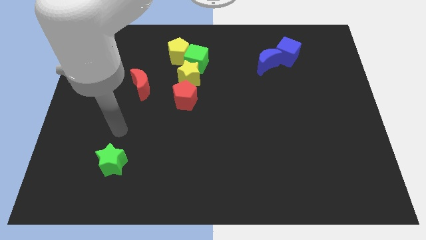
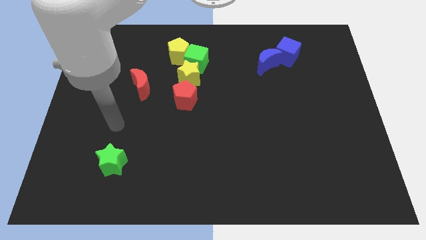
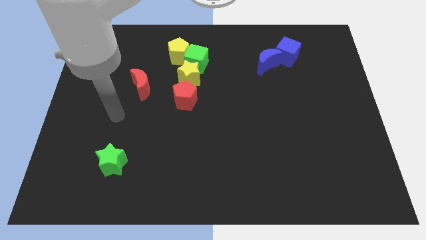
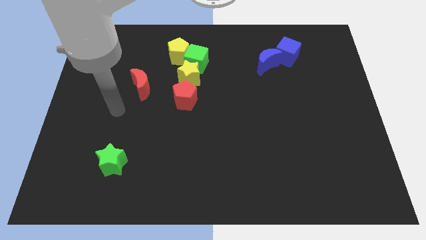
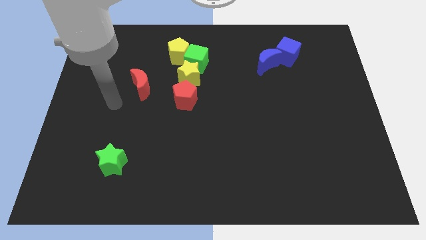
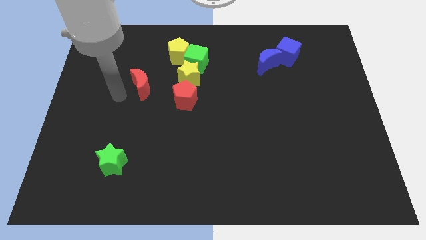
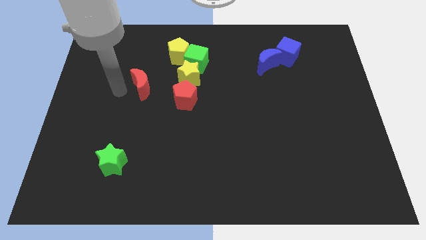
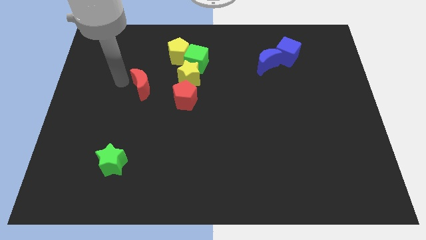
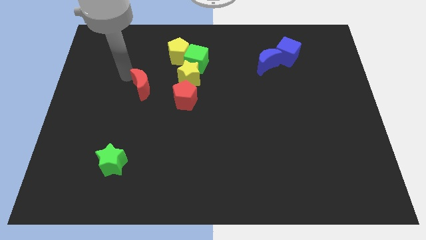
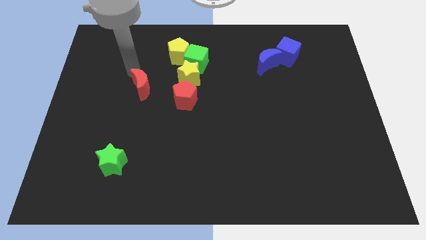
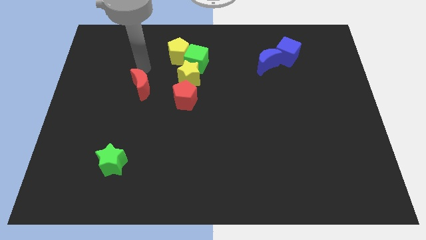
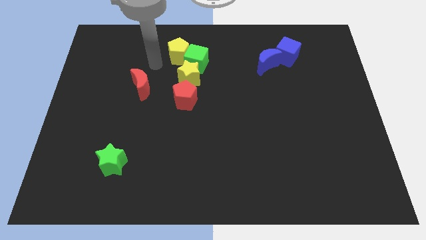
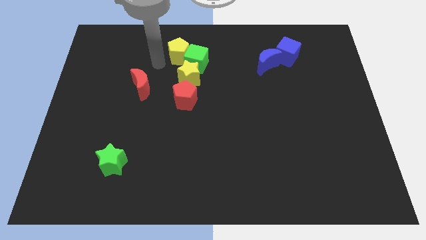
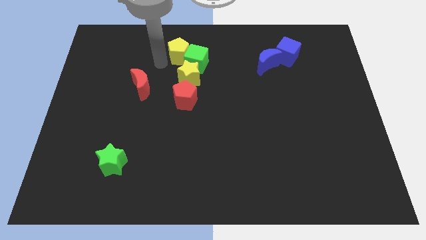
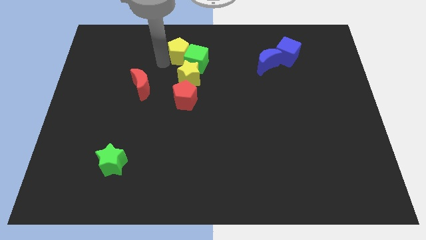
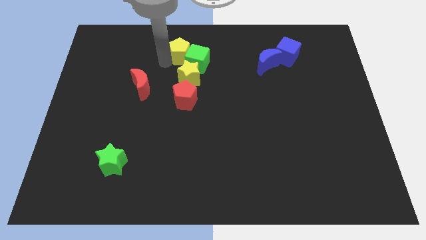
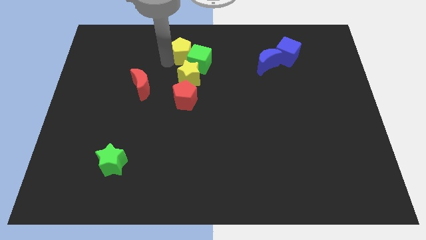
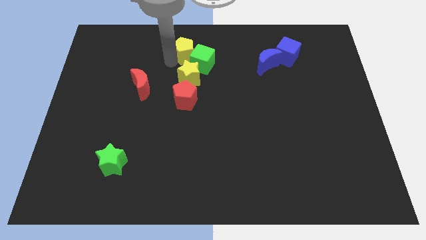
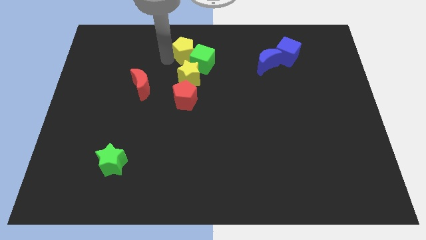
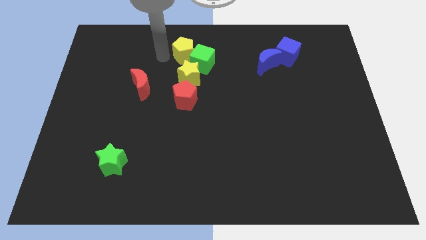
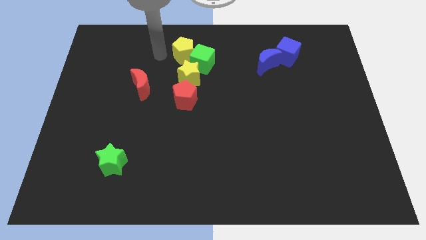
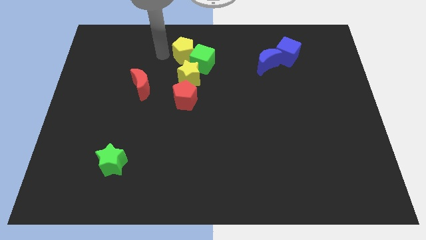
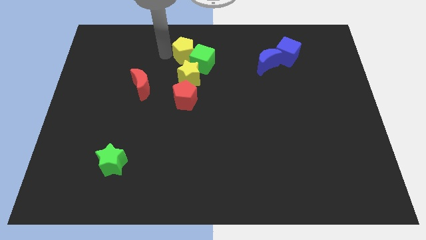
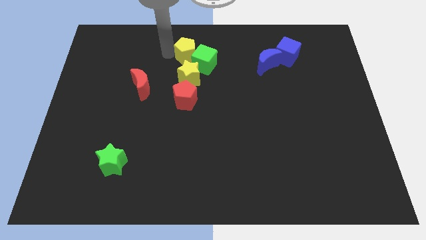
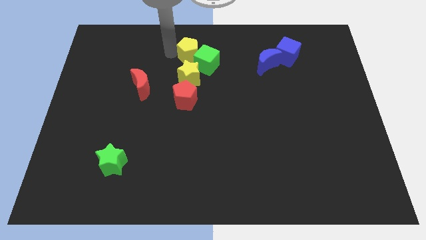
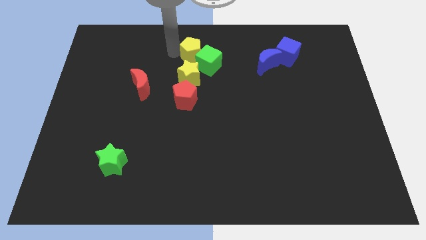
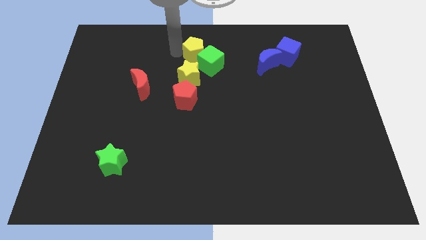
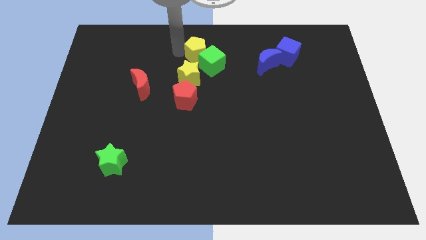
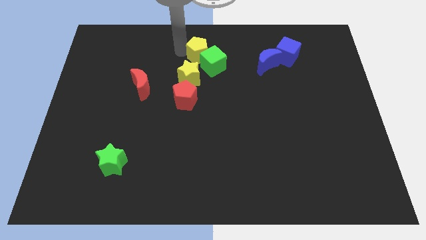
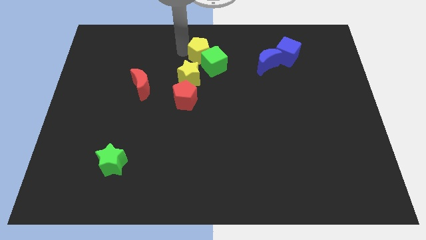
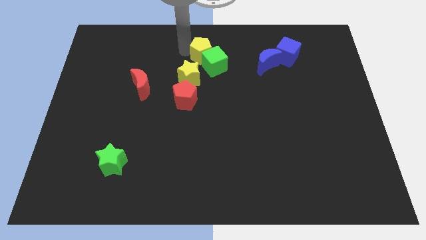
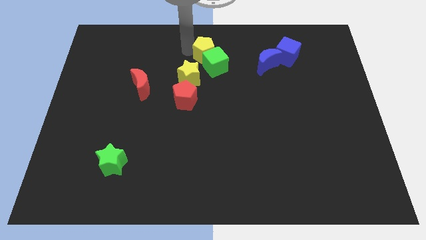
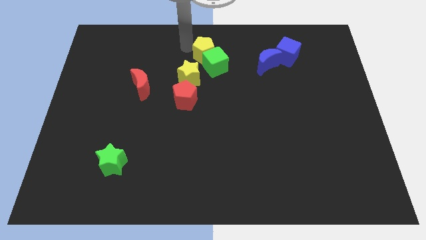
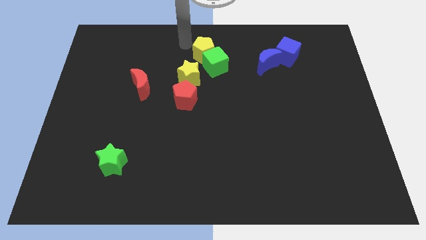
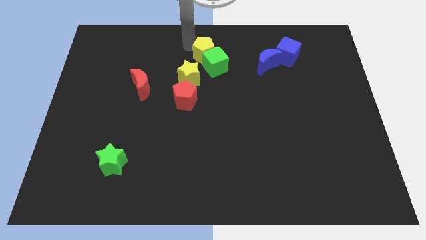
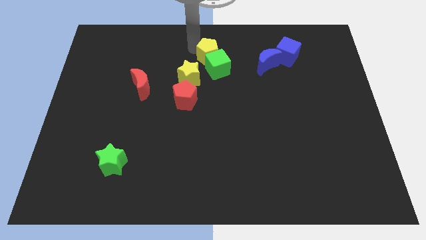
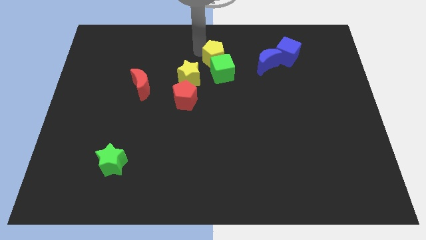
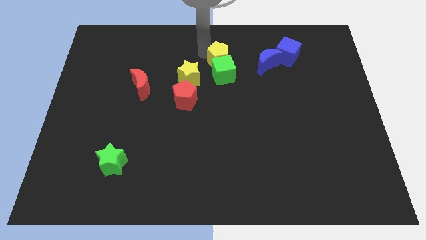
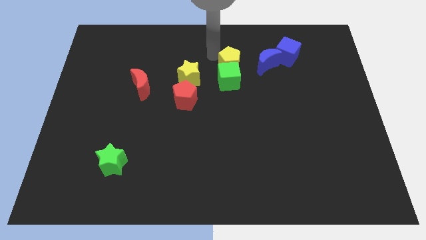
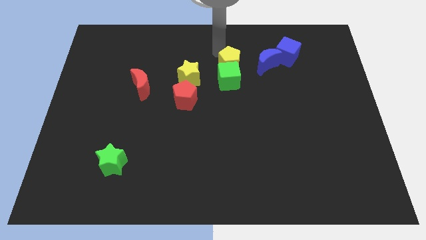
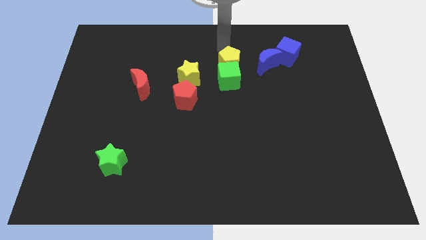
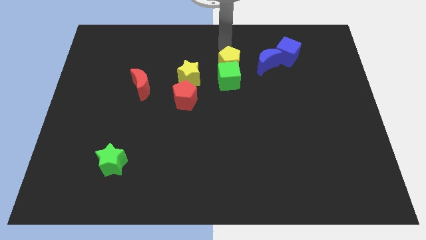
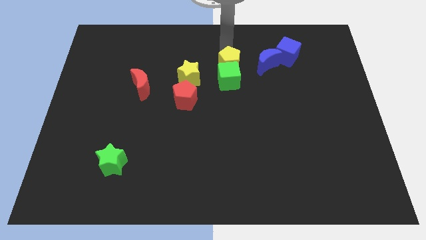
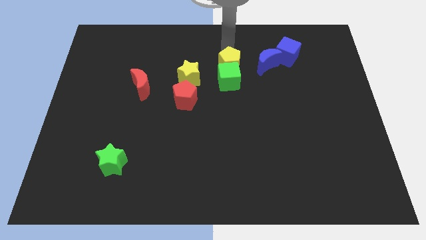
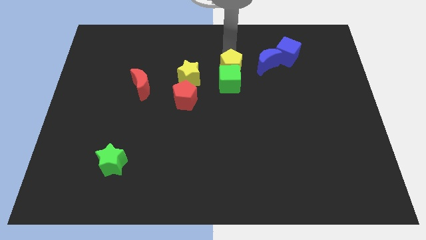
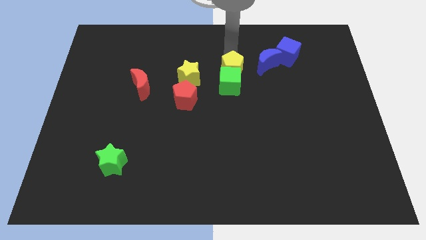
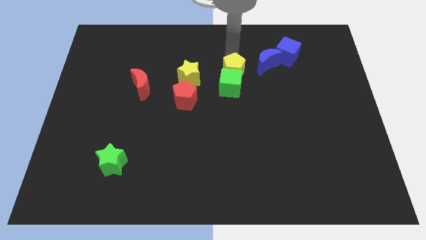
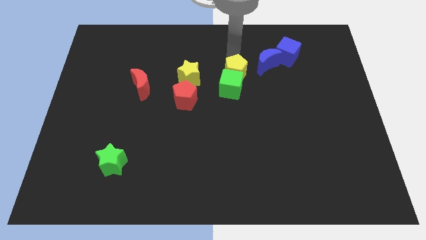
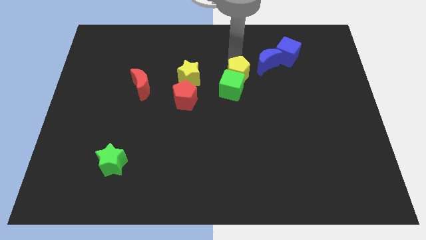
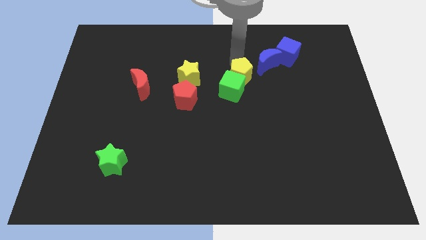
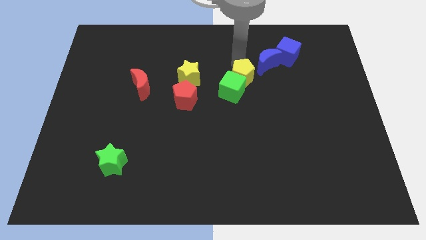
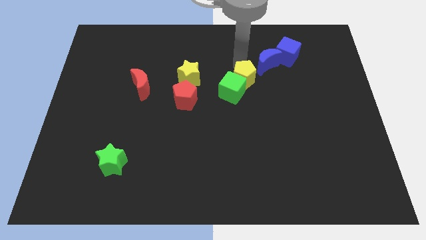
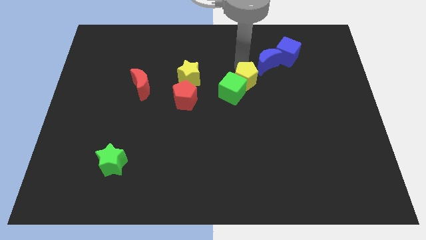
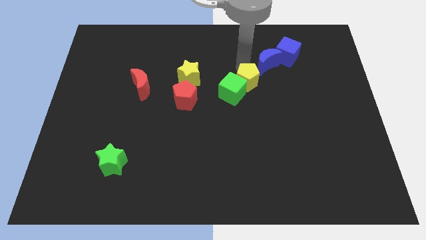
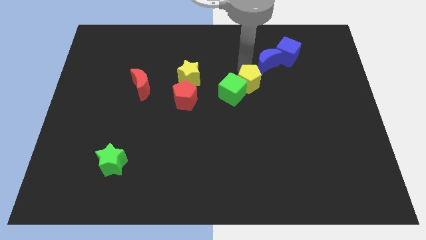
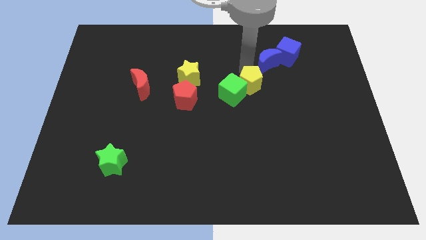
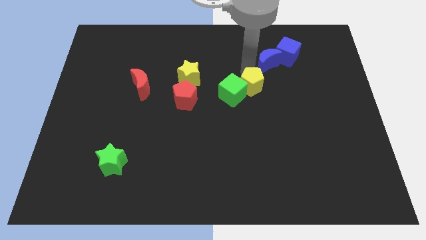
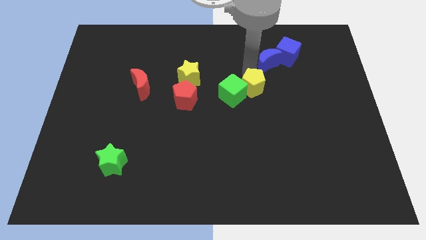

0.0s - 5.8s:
slide the yellow pentagon down and right

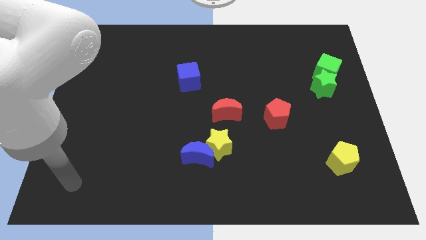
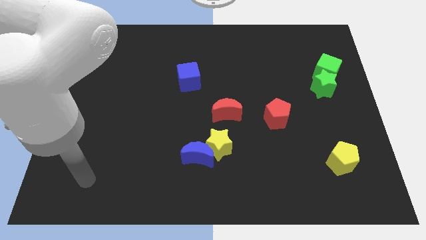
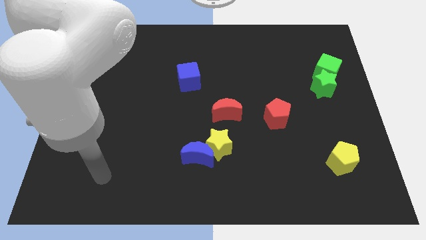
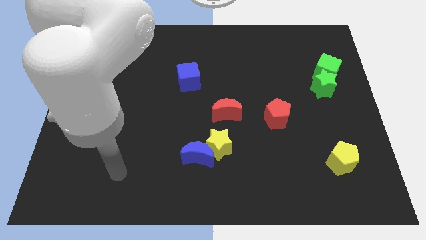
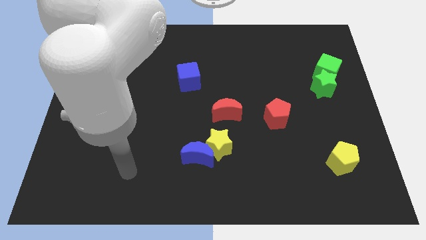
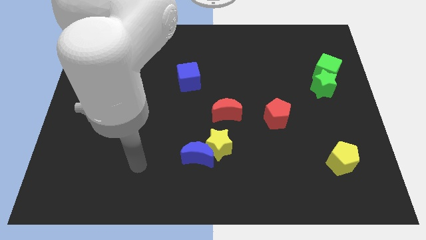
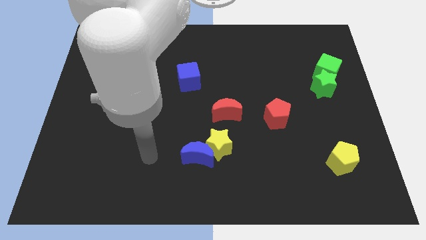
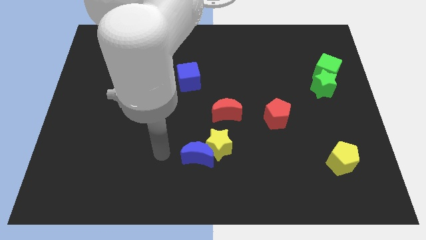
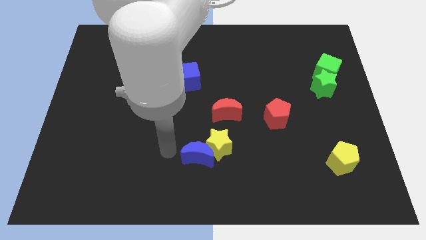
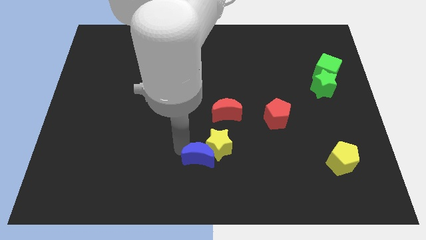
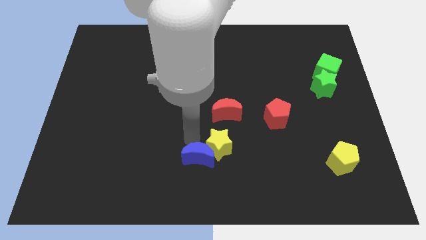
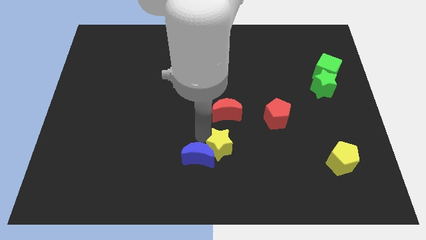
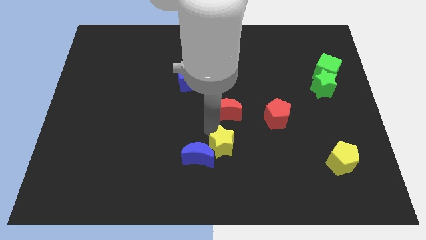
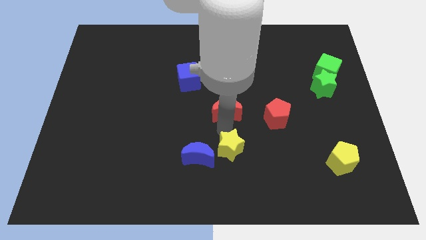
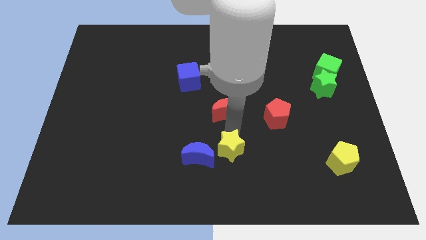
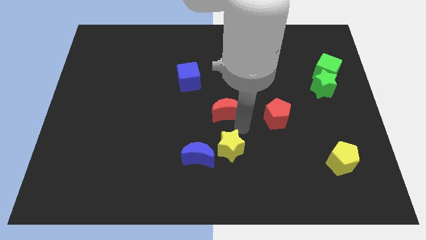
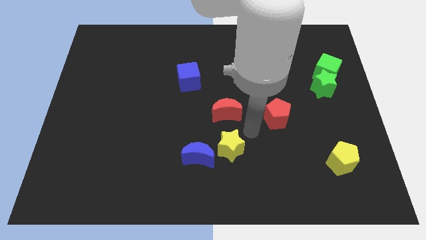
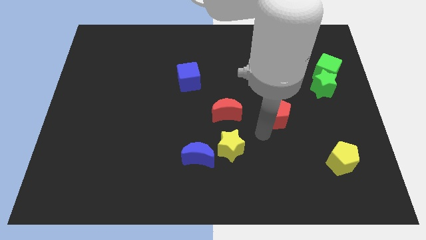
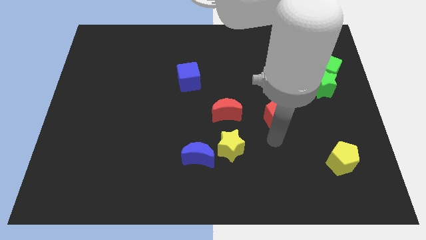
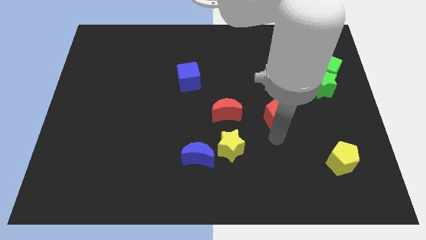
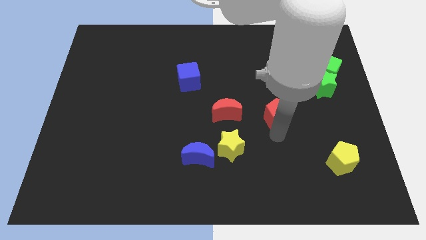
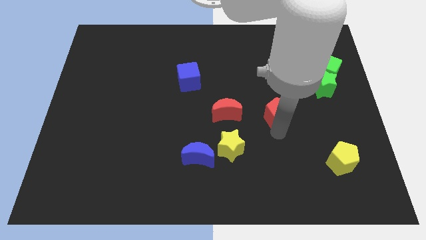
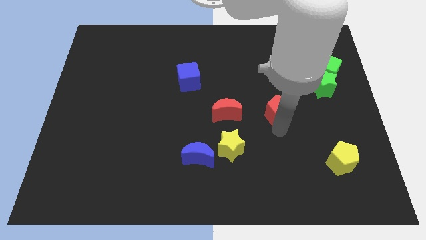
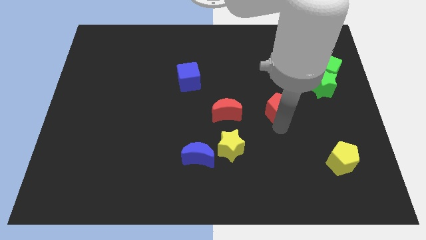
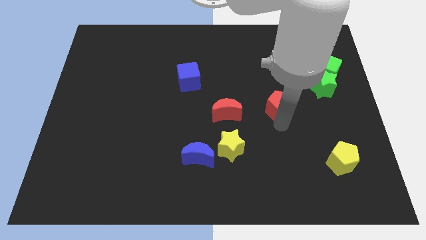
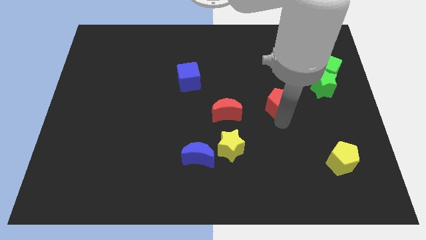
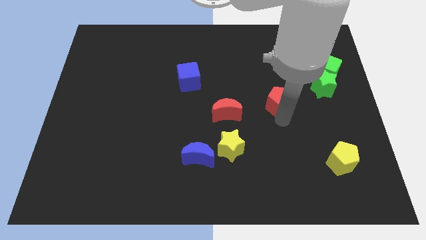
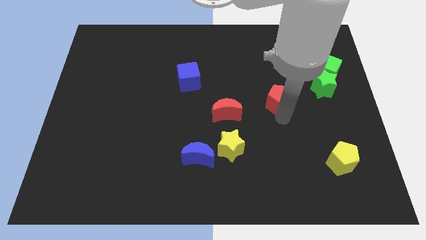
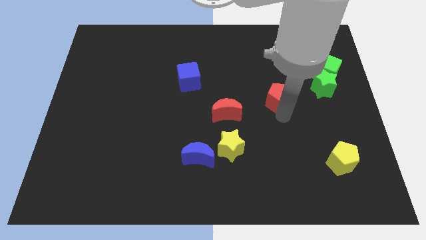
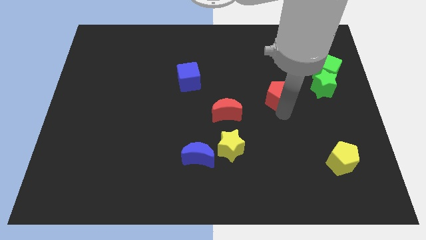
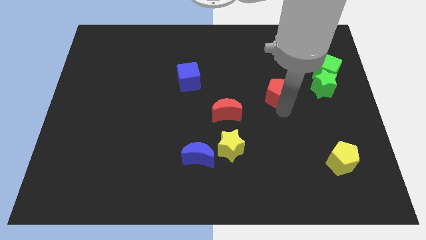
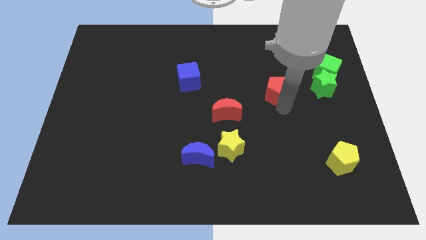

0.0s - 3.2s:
push the red pentagon a little upwards
